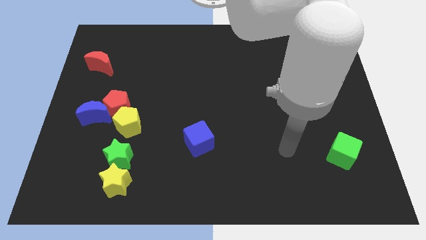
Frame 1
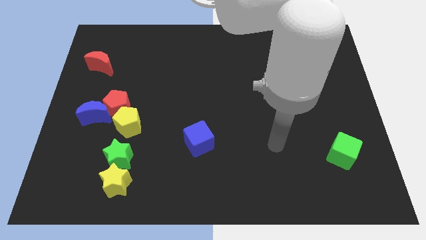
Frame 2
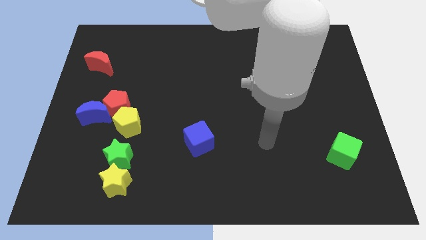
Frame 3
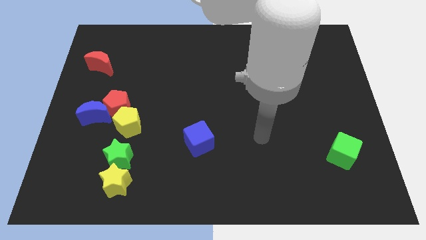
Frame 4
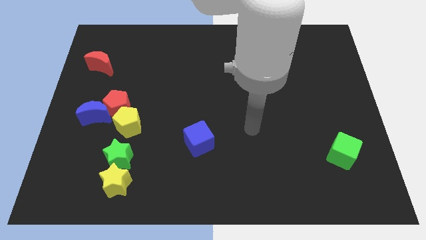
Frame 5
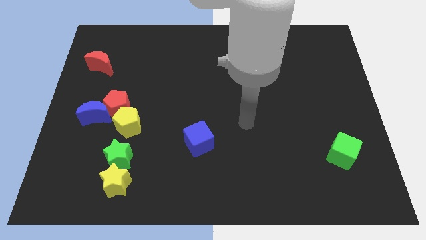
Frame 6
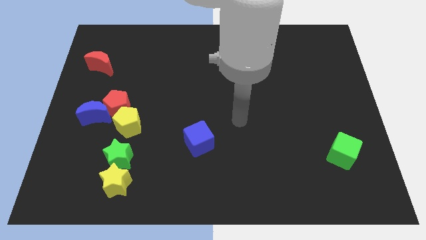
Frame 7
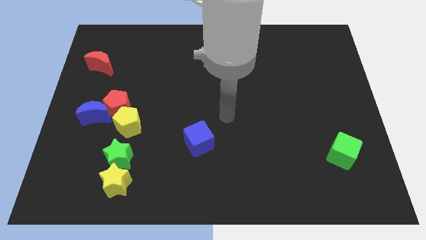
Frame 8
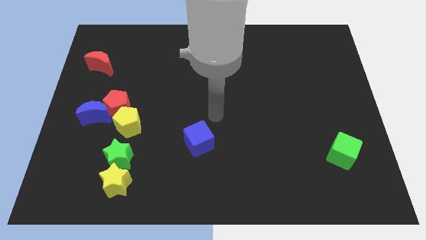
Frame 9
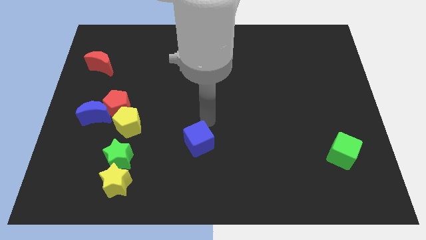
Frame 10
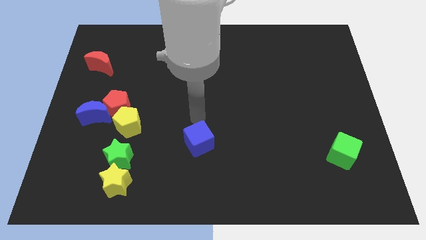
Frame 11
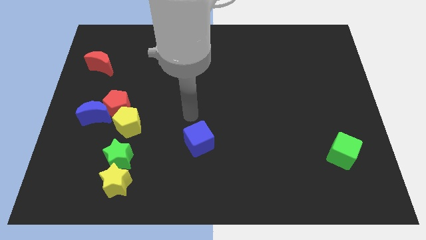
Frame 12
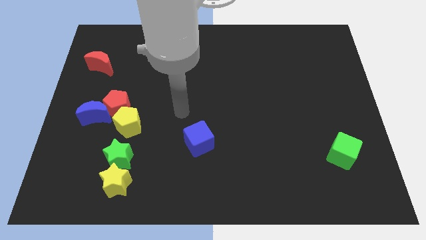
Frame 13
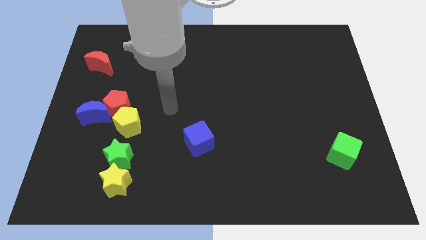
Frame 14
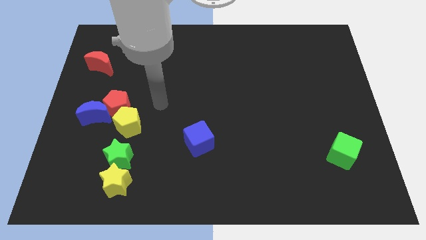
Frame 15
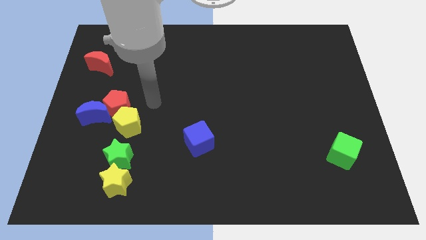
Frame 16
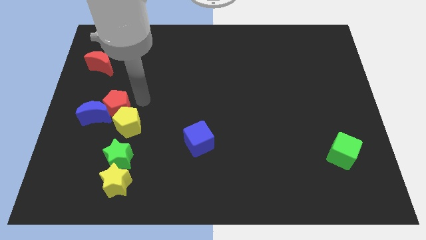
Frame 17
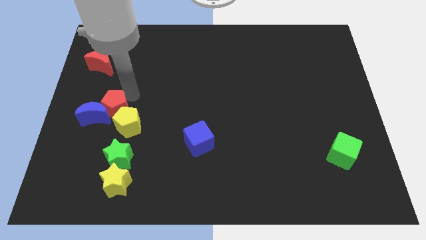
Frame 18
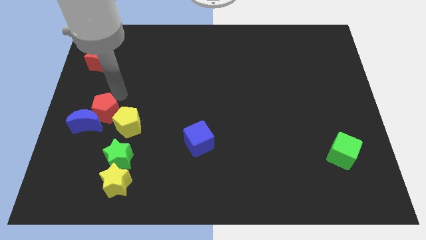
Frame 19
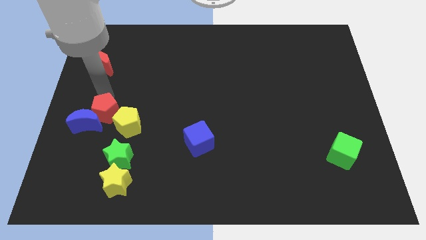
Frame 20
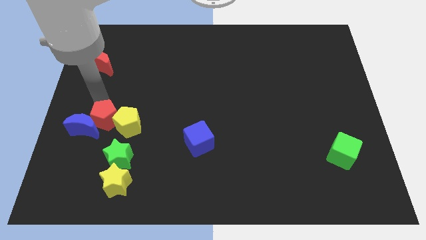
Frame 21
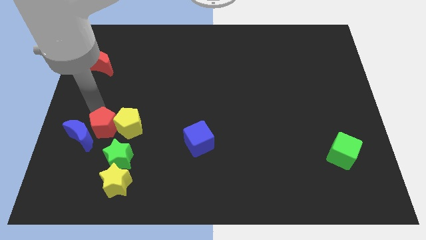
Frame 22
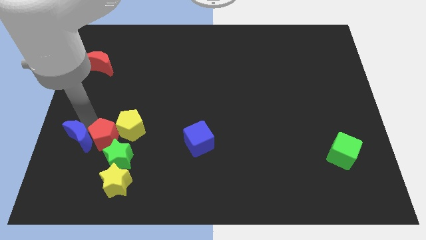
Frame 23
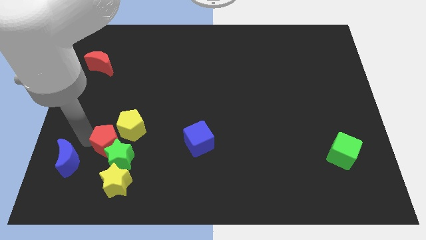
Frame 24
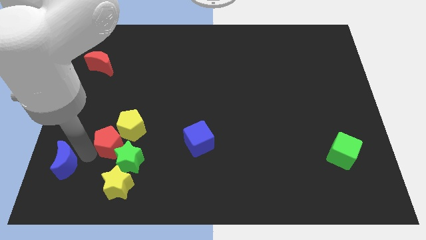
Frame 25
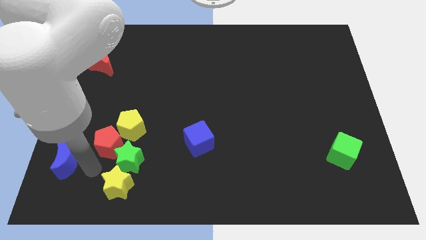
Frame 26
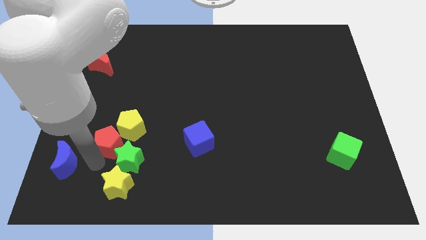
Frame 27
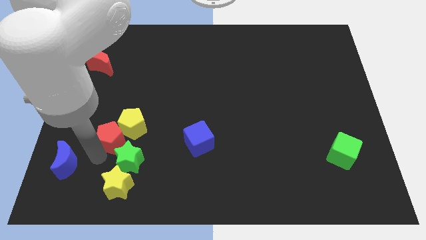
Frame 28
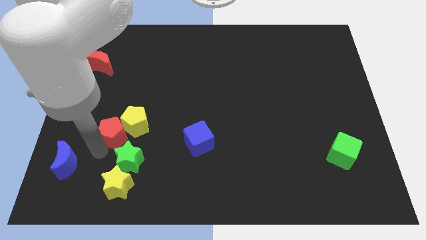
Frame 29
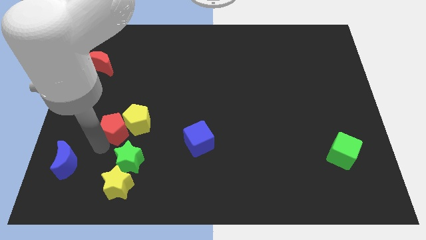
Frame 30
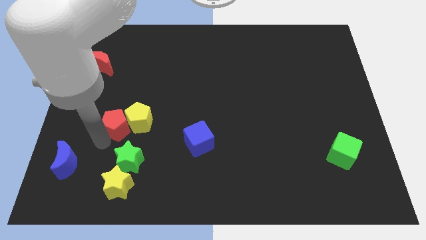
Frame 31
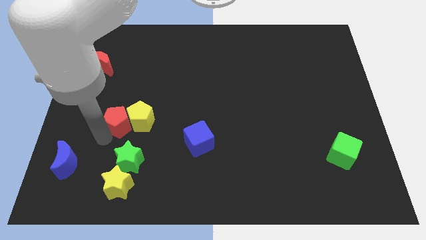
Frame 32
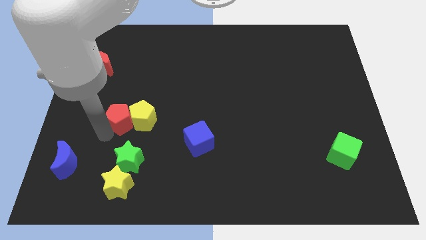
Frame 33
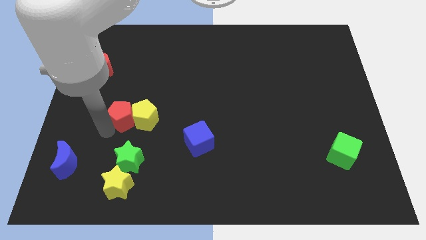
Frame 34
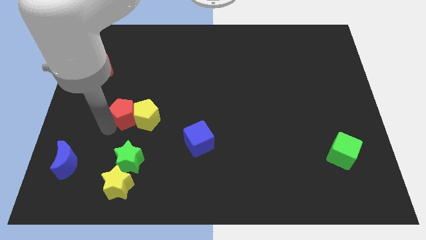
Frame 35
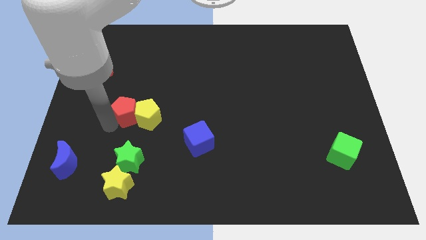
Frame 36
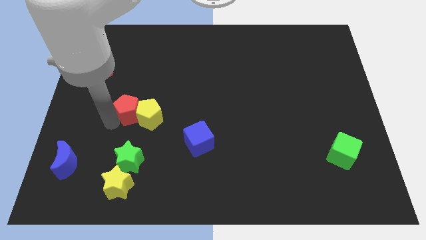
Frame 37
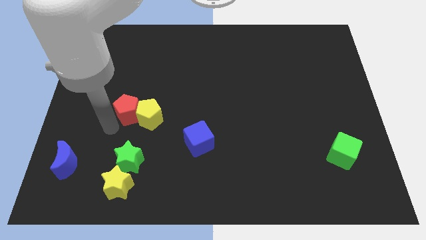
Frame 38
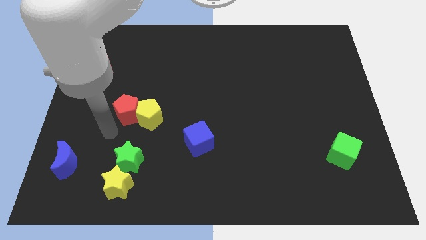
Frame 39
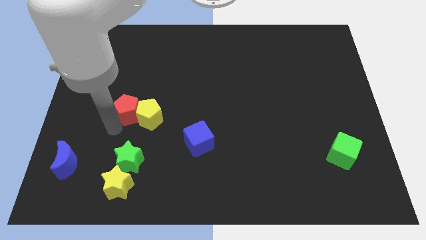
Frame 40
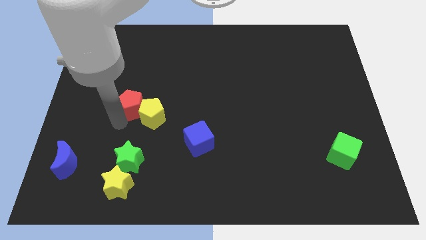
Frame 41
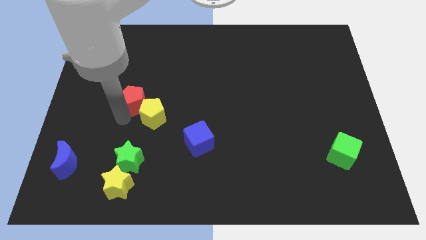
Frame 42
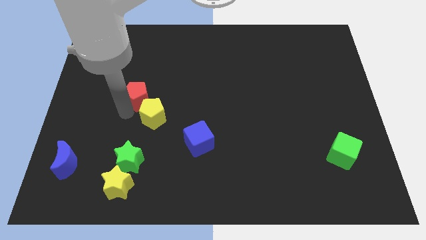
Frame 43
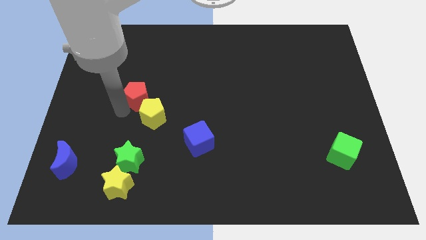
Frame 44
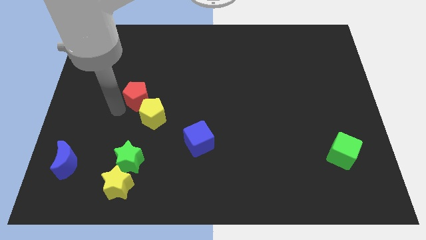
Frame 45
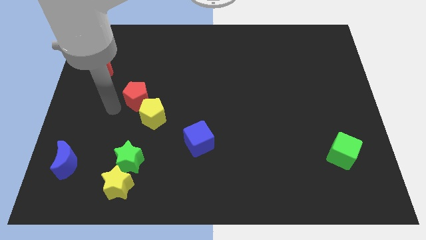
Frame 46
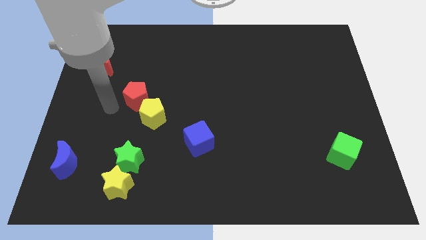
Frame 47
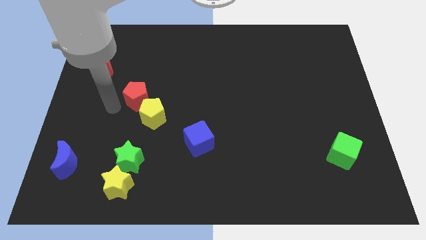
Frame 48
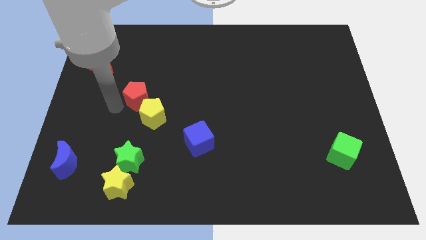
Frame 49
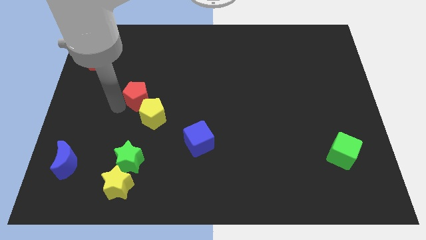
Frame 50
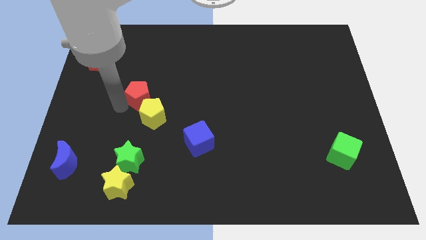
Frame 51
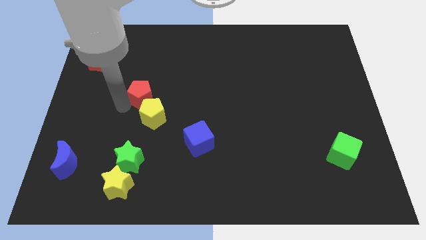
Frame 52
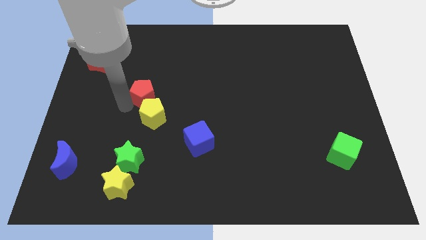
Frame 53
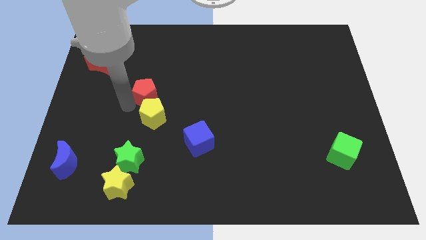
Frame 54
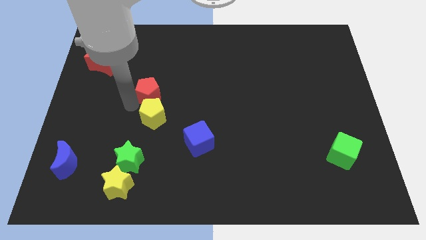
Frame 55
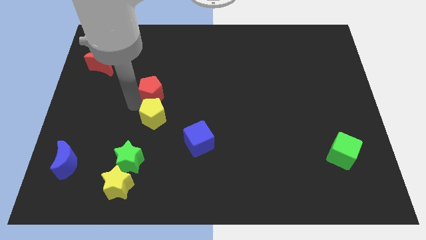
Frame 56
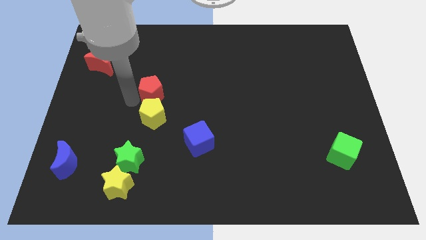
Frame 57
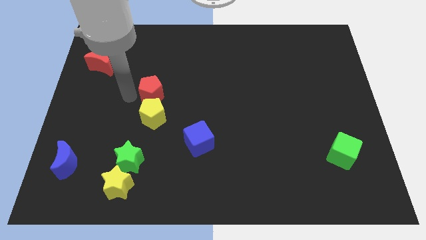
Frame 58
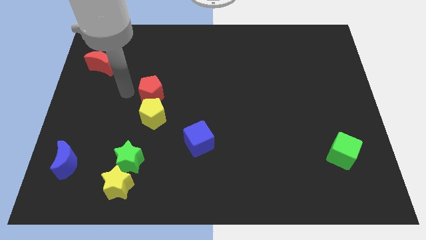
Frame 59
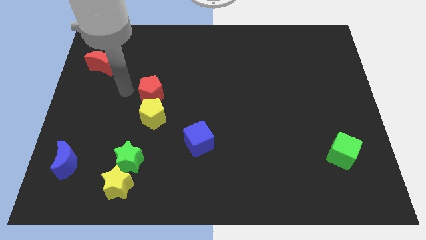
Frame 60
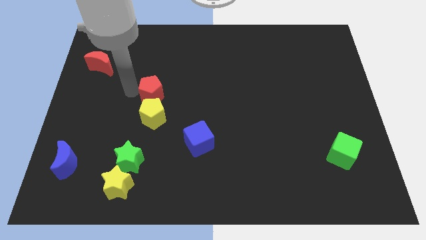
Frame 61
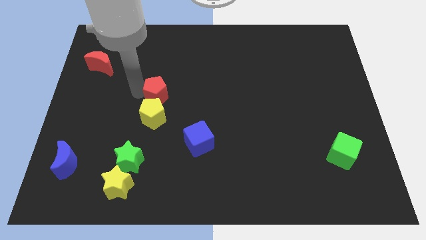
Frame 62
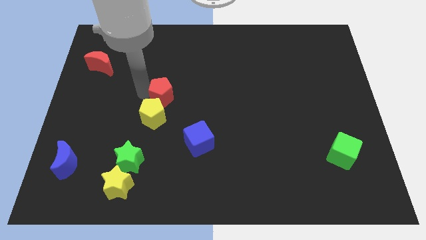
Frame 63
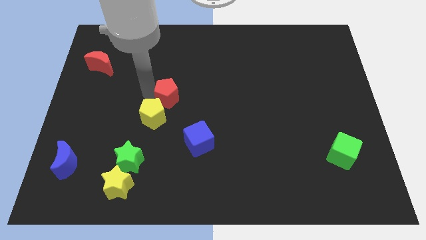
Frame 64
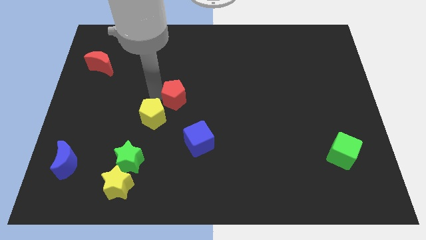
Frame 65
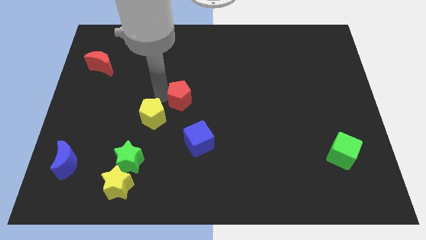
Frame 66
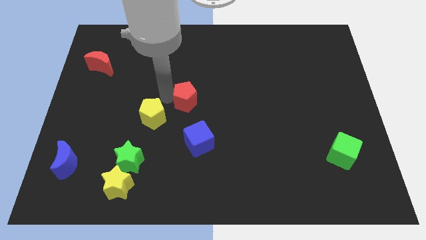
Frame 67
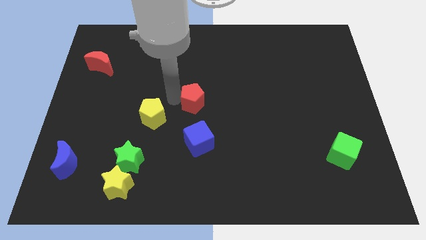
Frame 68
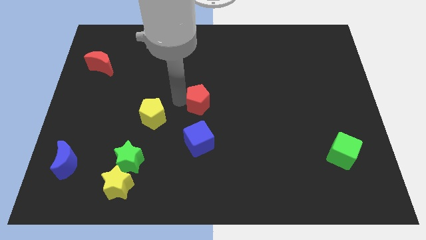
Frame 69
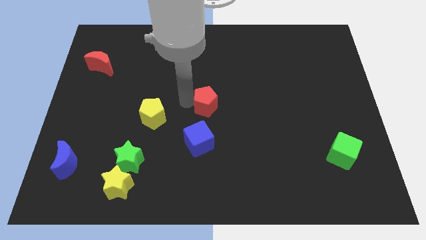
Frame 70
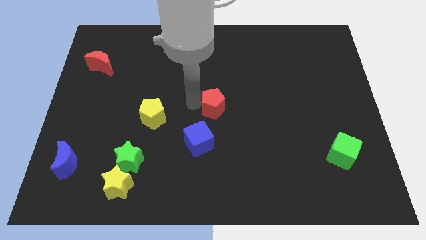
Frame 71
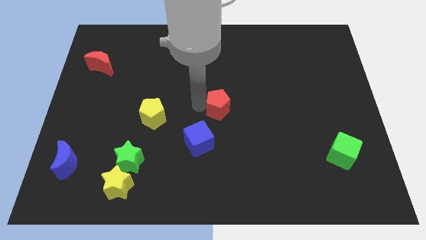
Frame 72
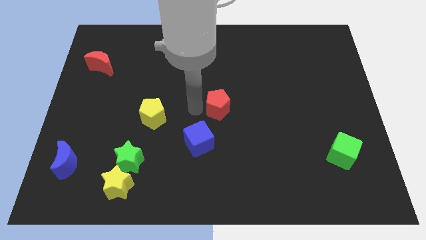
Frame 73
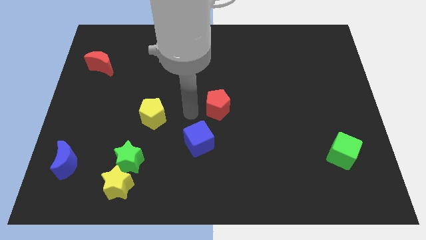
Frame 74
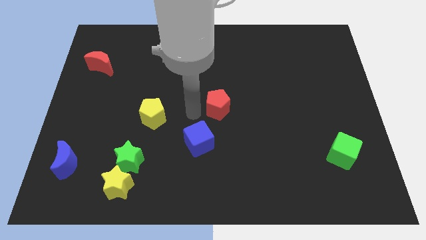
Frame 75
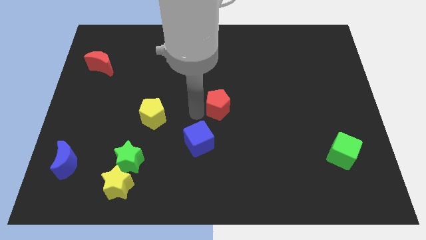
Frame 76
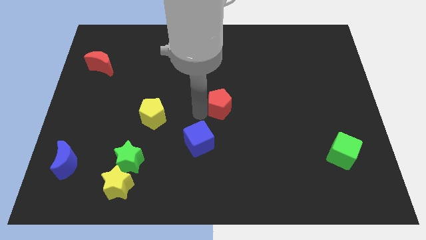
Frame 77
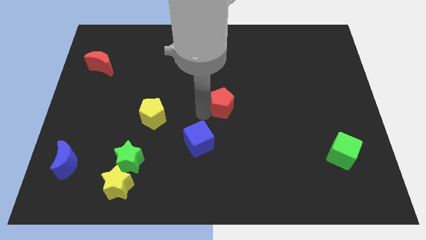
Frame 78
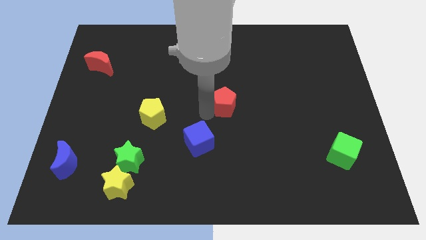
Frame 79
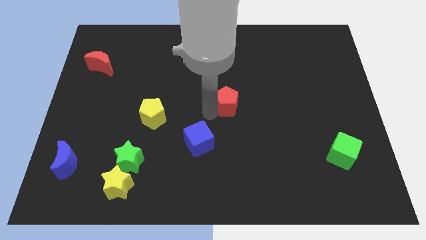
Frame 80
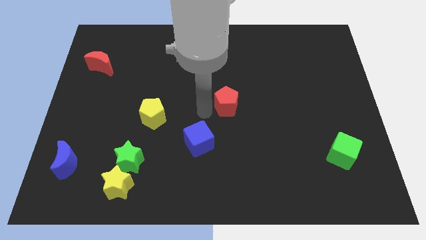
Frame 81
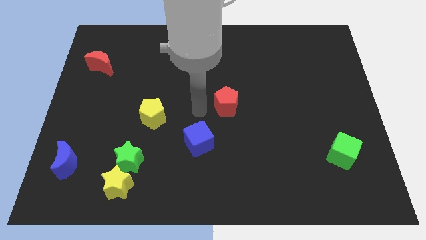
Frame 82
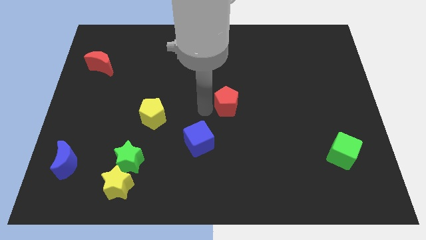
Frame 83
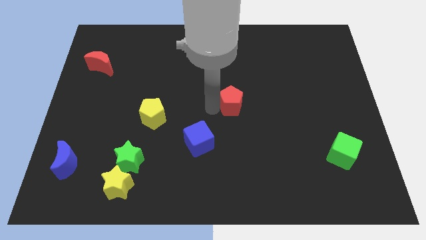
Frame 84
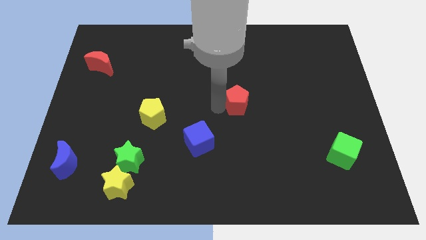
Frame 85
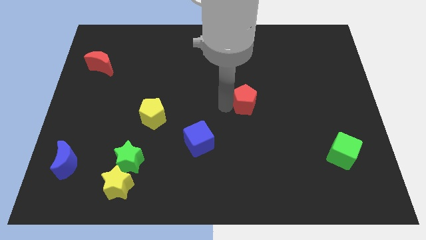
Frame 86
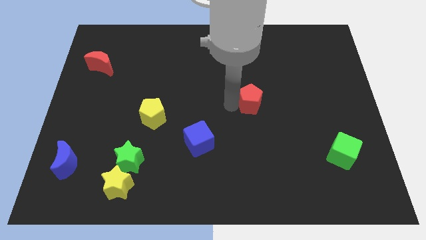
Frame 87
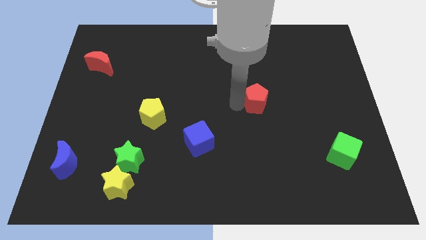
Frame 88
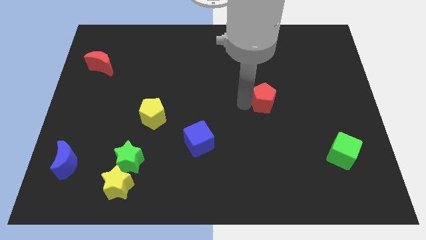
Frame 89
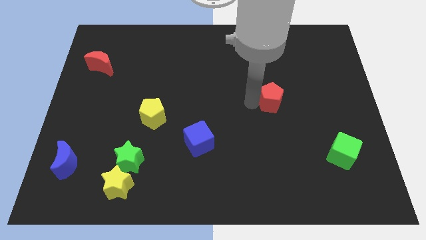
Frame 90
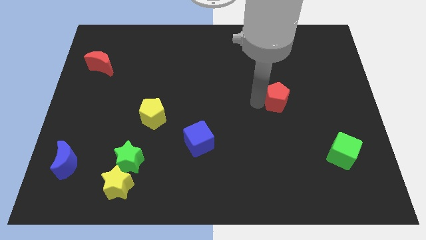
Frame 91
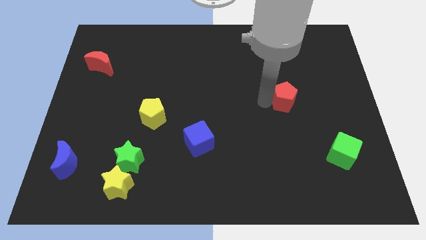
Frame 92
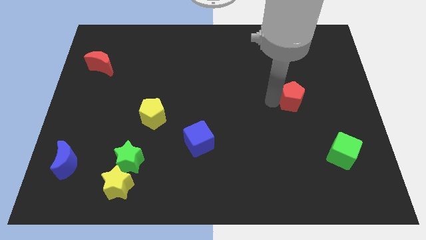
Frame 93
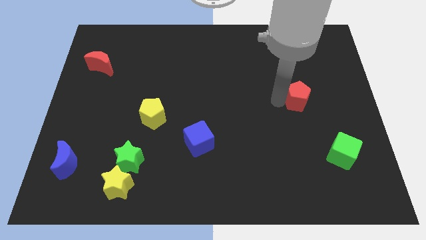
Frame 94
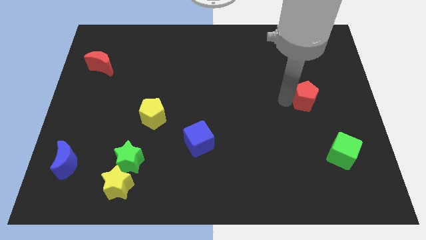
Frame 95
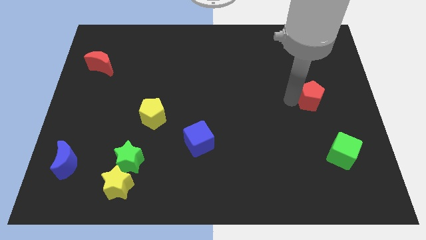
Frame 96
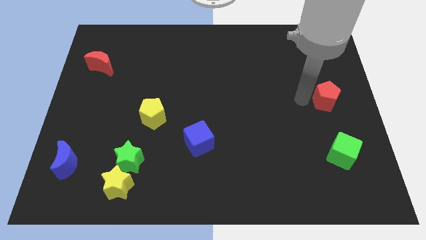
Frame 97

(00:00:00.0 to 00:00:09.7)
push the red pentagon to the center right
